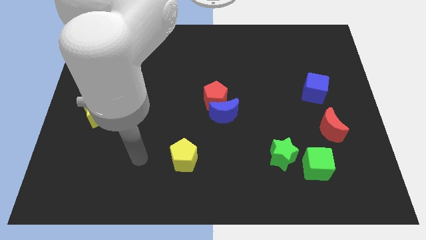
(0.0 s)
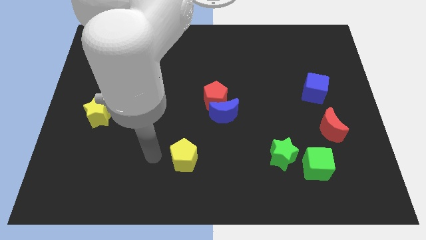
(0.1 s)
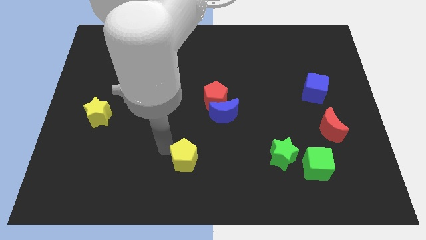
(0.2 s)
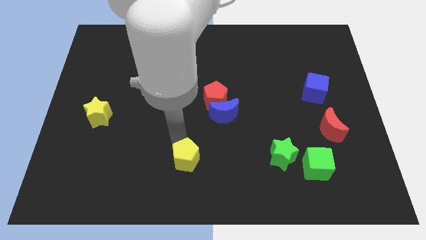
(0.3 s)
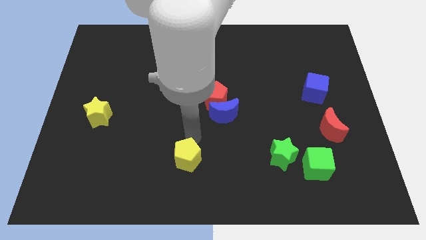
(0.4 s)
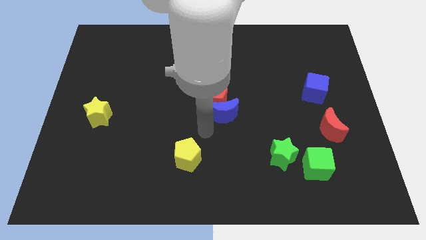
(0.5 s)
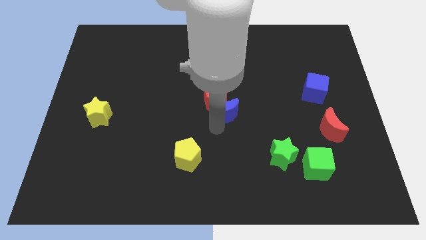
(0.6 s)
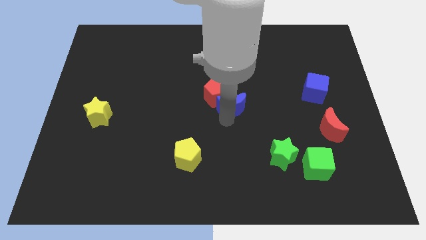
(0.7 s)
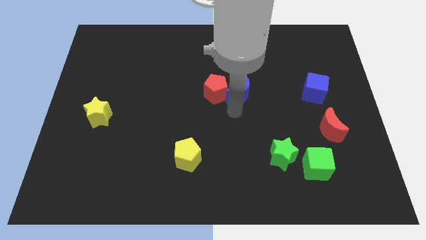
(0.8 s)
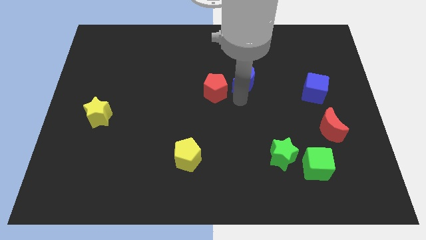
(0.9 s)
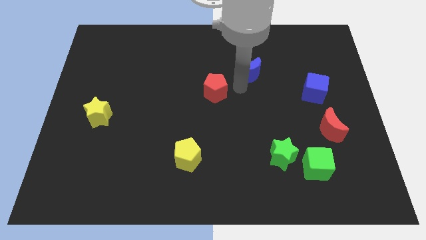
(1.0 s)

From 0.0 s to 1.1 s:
pull the red pentagon apart from the blue moon

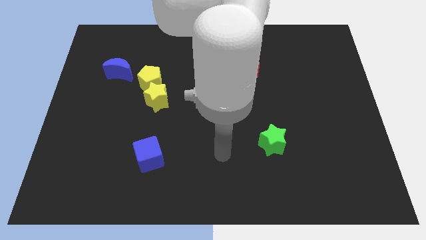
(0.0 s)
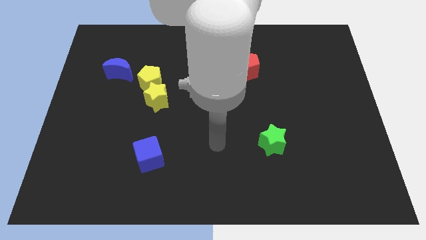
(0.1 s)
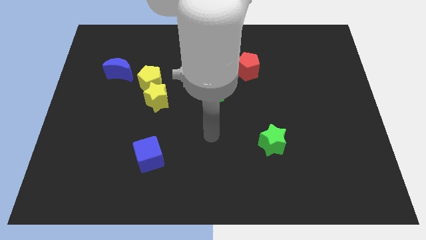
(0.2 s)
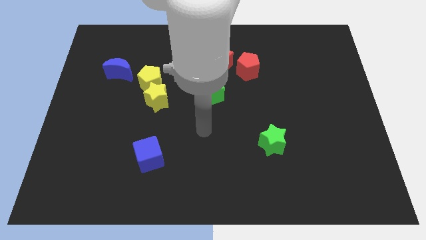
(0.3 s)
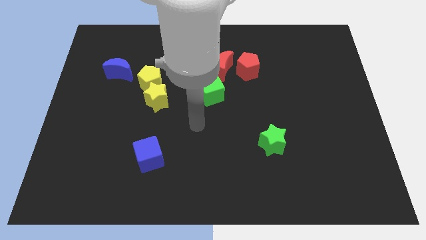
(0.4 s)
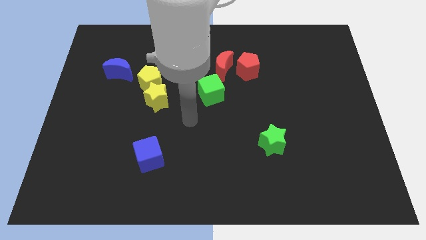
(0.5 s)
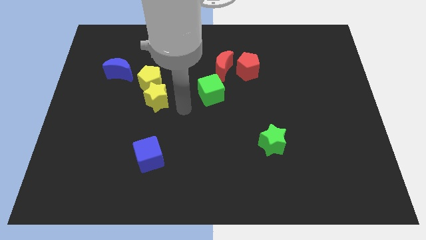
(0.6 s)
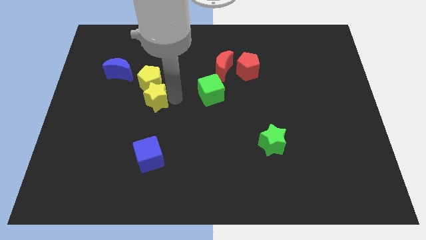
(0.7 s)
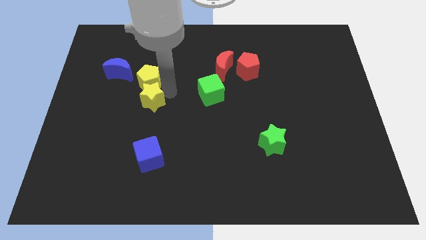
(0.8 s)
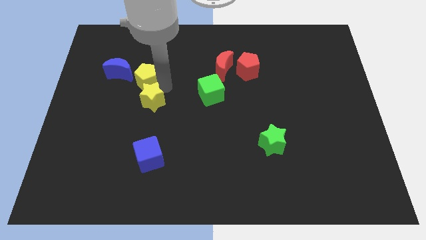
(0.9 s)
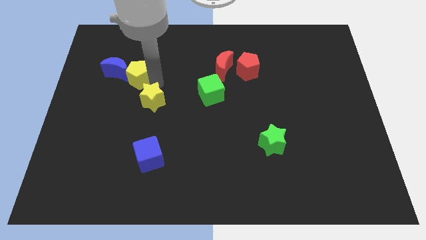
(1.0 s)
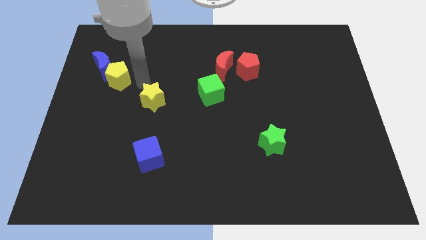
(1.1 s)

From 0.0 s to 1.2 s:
pull the yellow star apart from the yellow pentagon

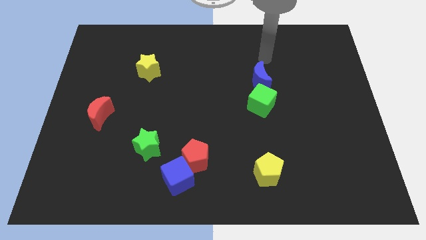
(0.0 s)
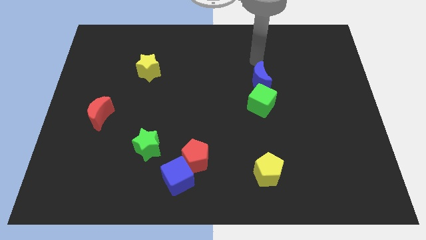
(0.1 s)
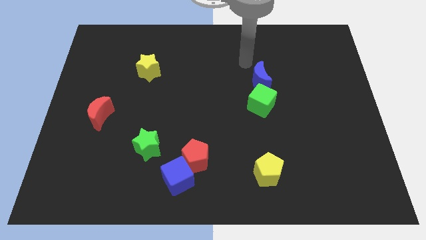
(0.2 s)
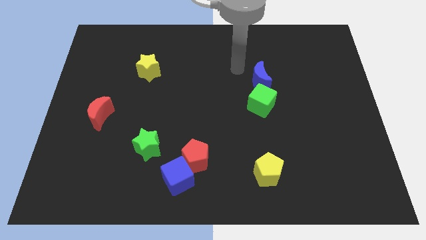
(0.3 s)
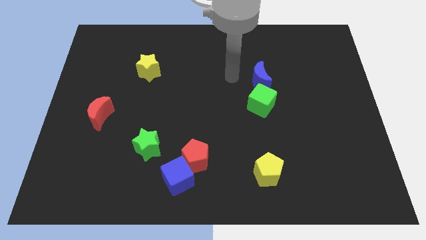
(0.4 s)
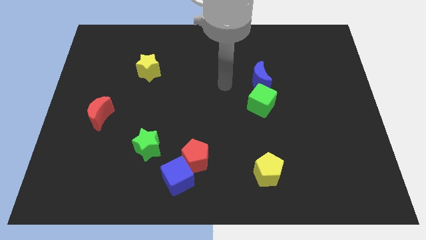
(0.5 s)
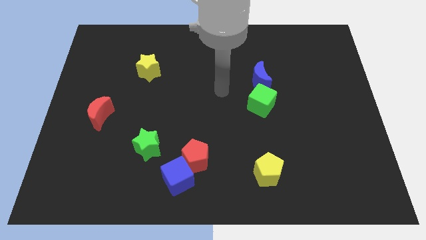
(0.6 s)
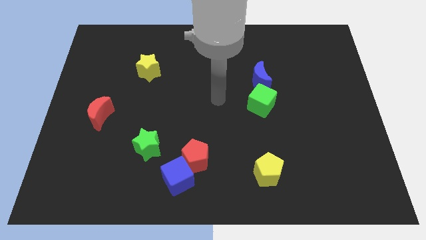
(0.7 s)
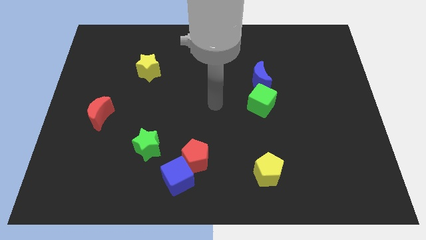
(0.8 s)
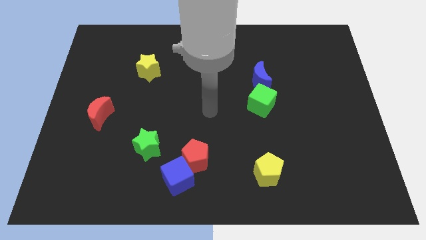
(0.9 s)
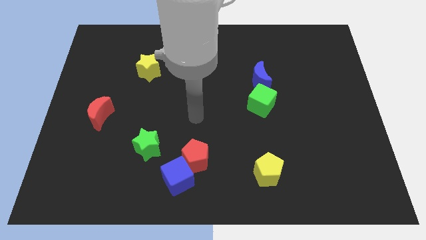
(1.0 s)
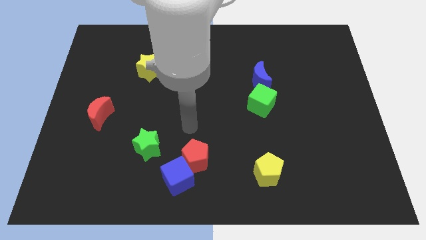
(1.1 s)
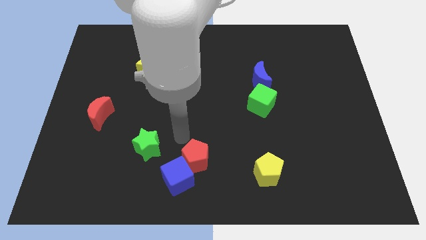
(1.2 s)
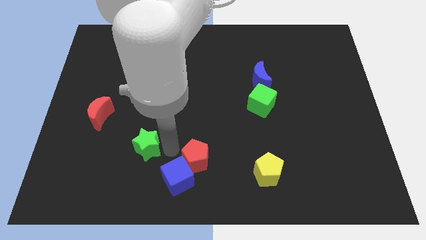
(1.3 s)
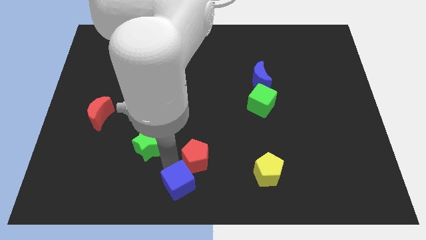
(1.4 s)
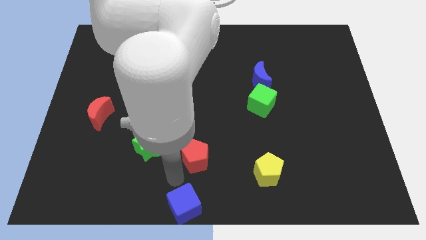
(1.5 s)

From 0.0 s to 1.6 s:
separate the red pentagon from the blue cube

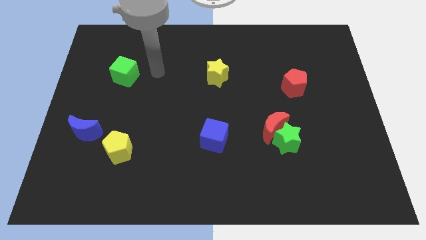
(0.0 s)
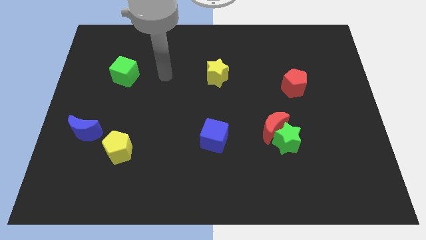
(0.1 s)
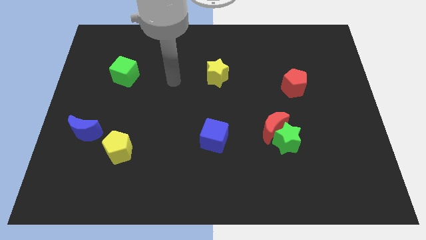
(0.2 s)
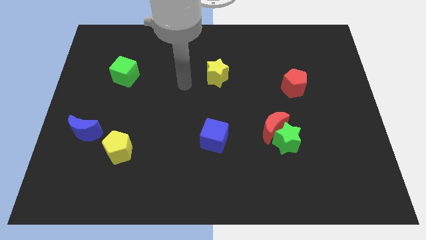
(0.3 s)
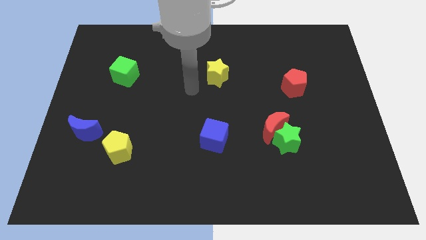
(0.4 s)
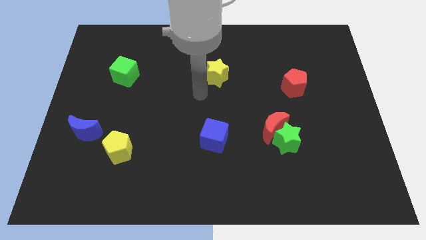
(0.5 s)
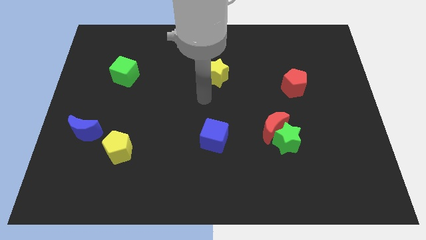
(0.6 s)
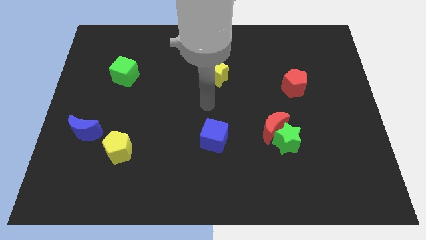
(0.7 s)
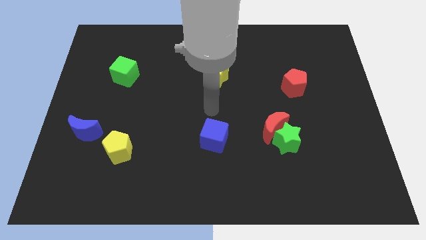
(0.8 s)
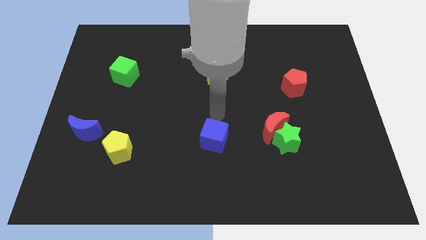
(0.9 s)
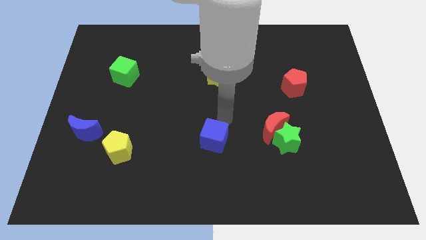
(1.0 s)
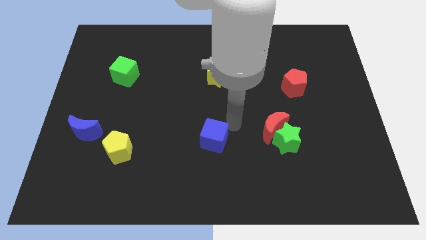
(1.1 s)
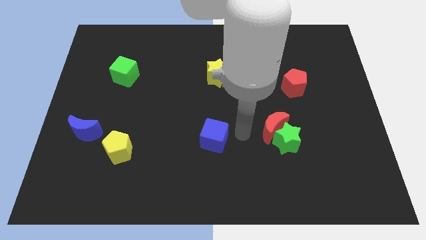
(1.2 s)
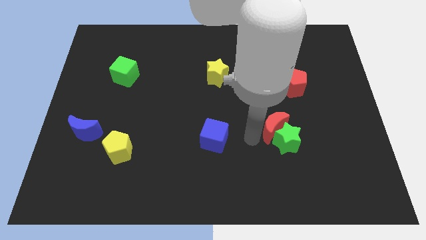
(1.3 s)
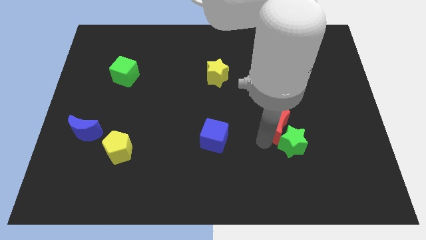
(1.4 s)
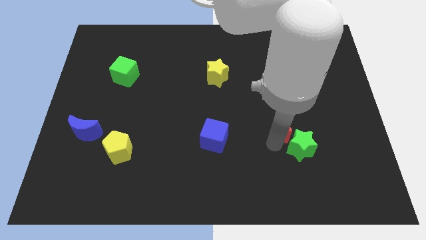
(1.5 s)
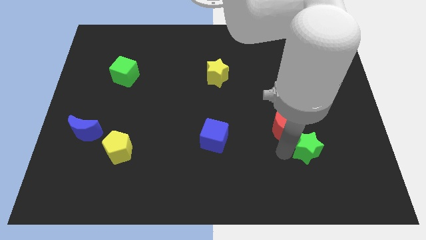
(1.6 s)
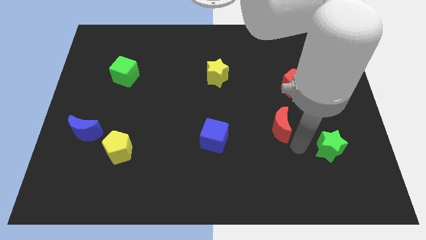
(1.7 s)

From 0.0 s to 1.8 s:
separate the red moon from the green star

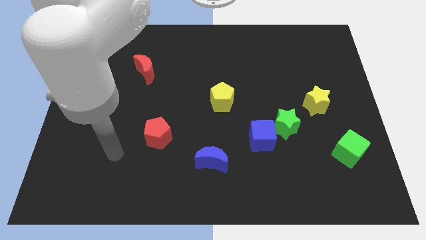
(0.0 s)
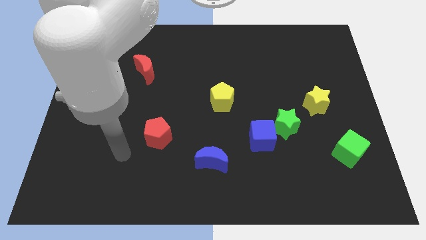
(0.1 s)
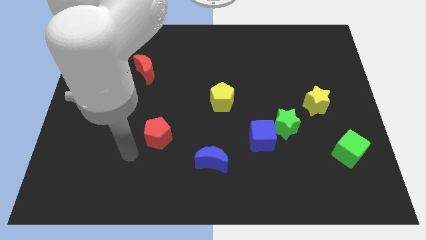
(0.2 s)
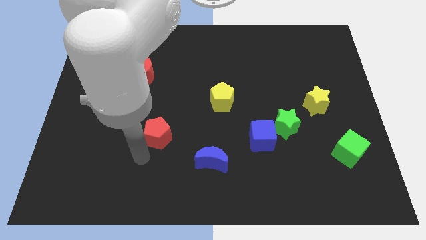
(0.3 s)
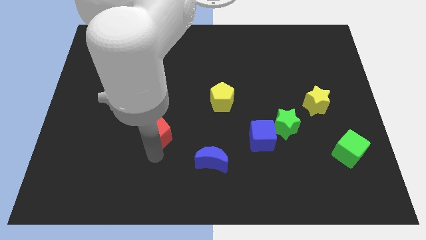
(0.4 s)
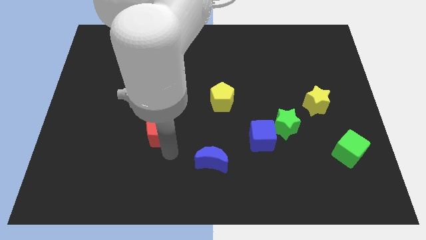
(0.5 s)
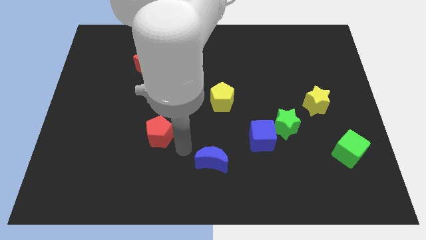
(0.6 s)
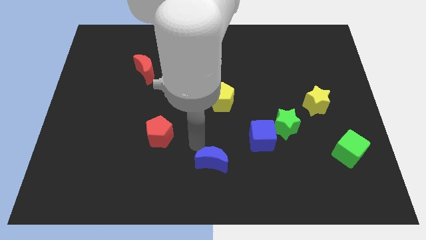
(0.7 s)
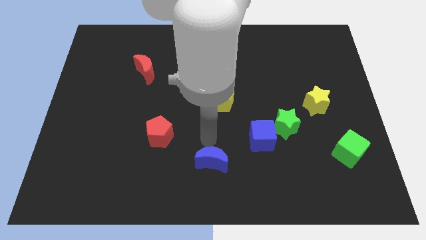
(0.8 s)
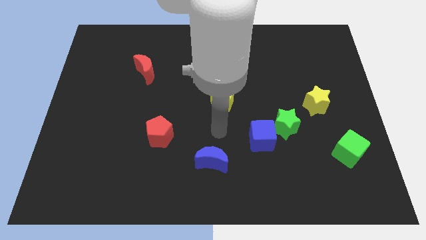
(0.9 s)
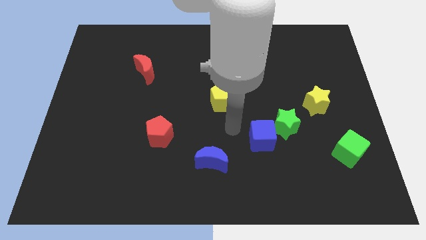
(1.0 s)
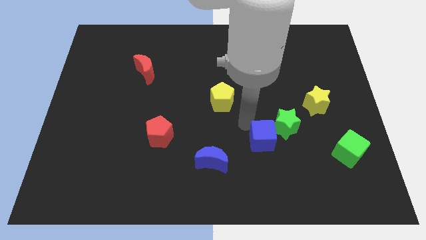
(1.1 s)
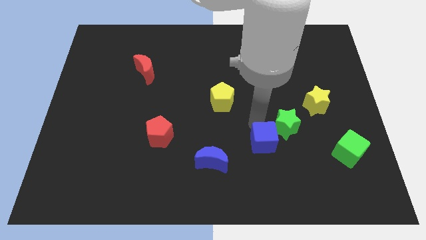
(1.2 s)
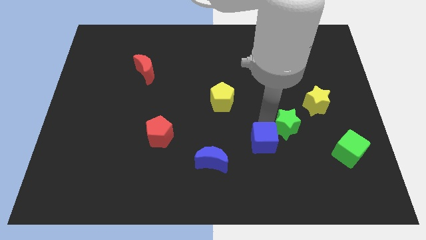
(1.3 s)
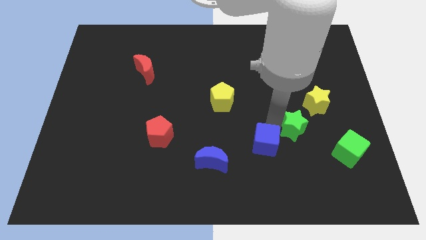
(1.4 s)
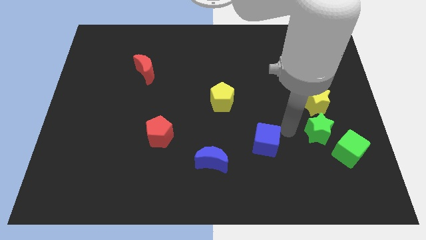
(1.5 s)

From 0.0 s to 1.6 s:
pull the blue cube apart from the green star

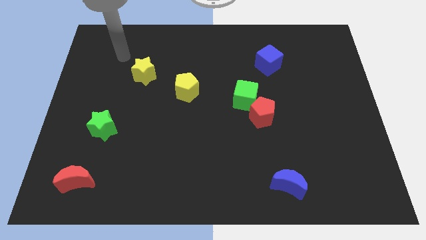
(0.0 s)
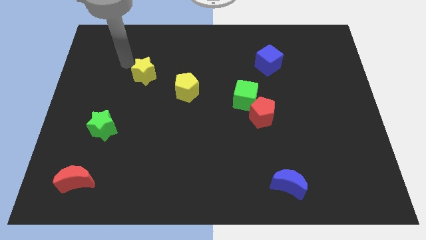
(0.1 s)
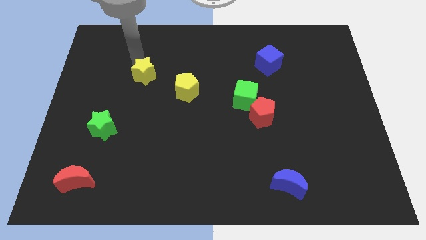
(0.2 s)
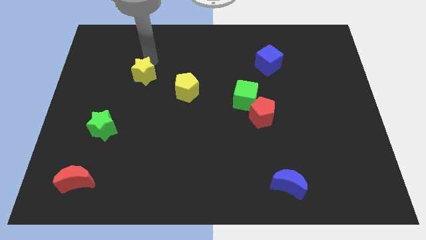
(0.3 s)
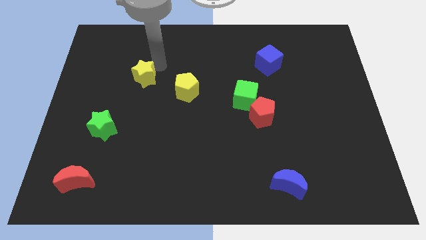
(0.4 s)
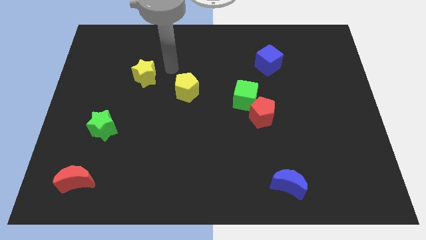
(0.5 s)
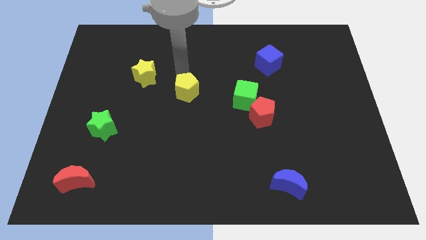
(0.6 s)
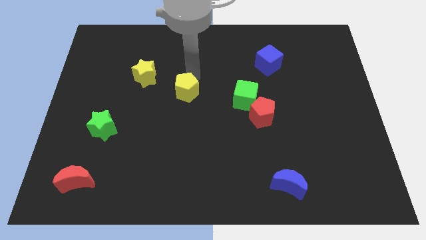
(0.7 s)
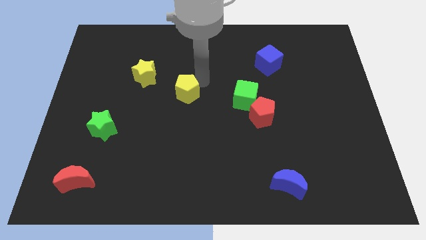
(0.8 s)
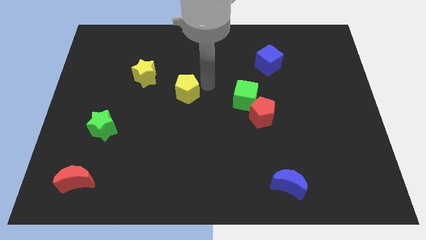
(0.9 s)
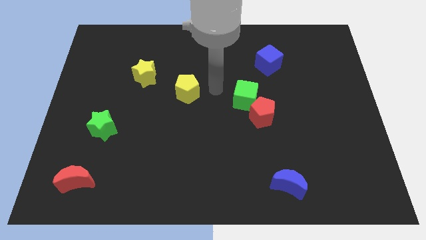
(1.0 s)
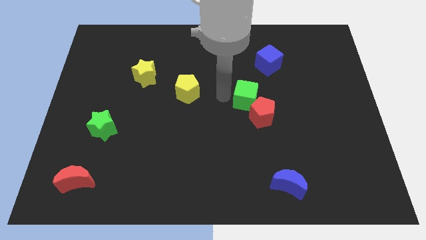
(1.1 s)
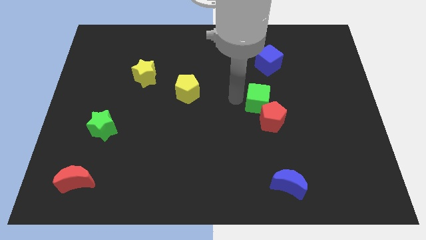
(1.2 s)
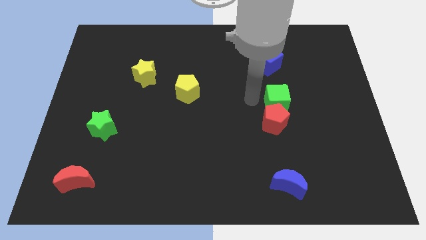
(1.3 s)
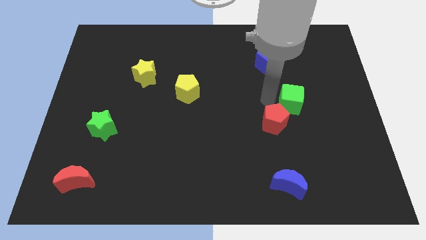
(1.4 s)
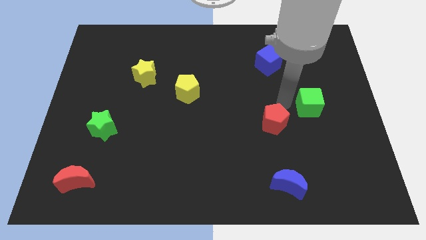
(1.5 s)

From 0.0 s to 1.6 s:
separate the red pentagon from the green cube

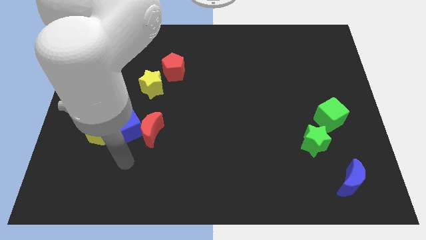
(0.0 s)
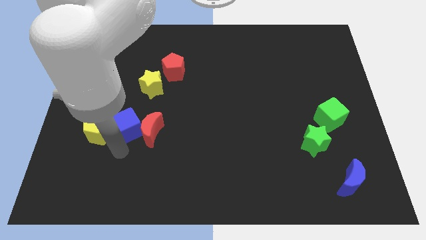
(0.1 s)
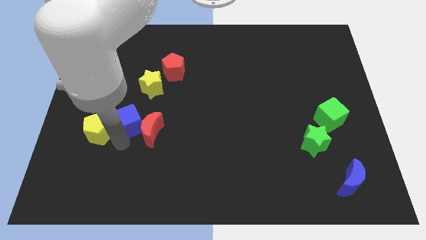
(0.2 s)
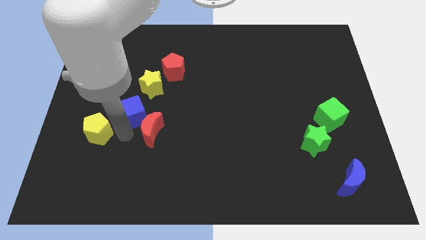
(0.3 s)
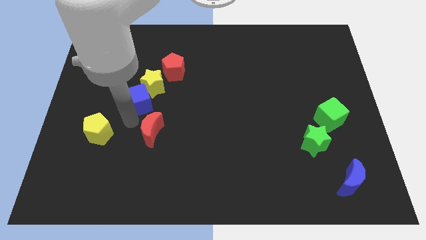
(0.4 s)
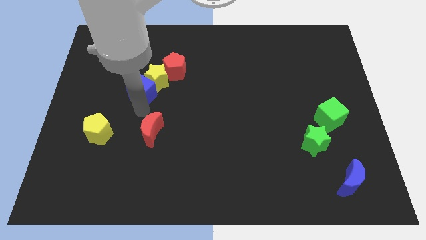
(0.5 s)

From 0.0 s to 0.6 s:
move the red moon away from the blue cube
